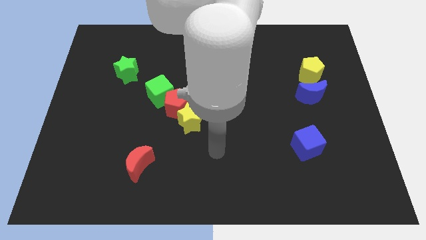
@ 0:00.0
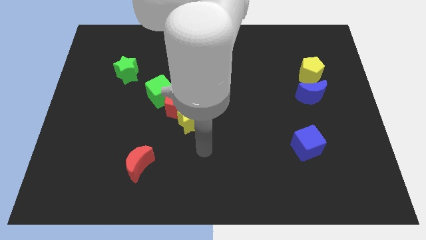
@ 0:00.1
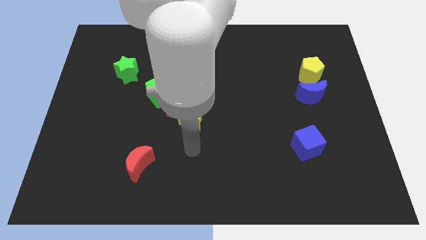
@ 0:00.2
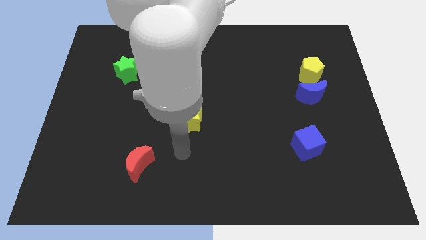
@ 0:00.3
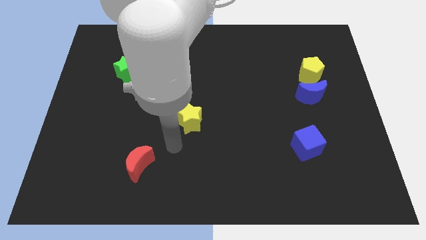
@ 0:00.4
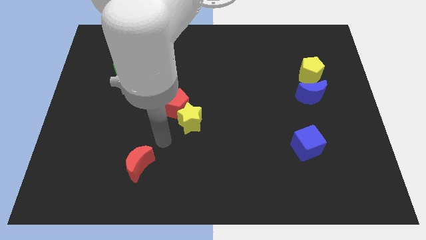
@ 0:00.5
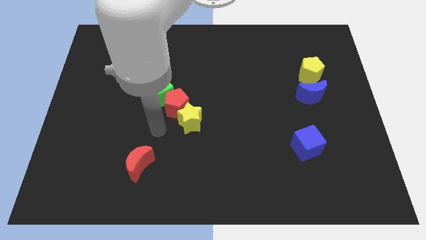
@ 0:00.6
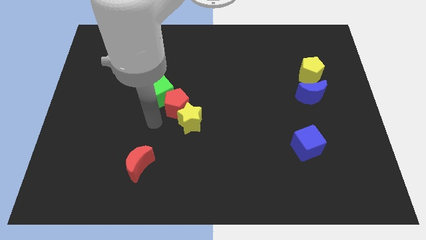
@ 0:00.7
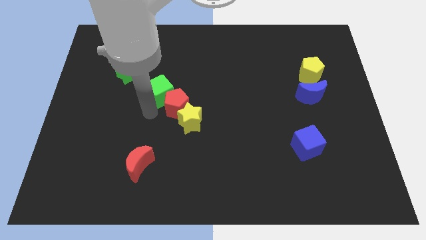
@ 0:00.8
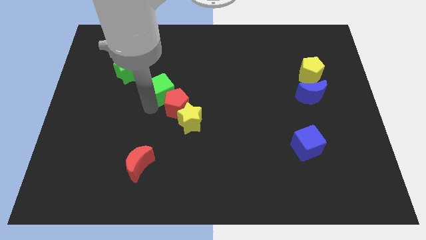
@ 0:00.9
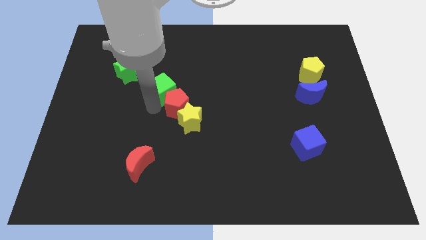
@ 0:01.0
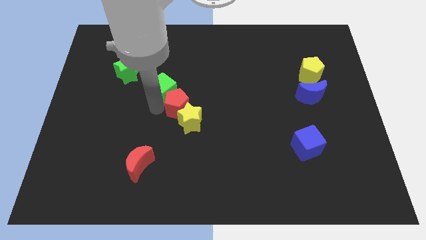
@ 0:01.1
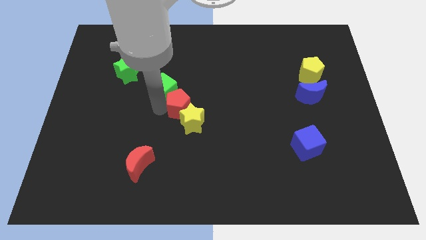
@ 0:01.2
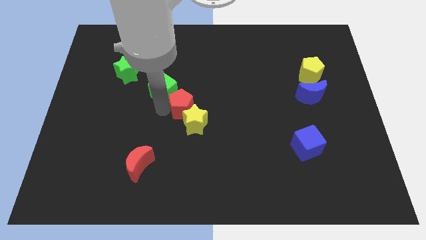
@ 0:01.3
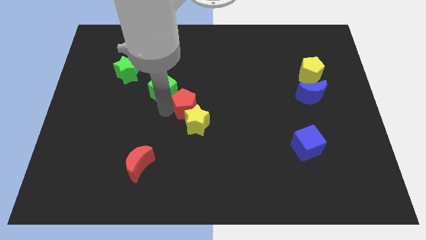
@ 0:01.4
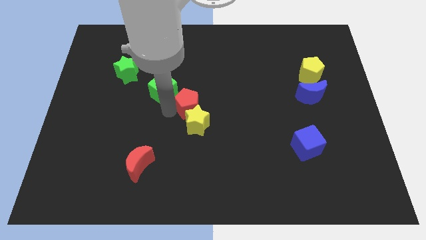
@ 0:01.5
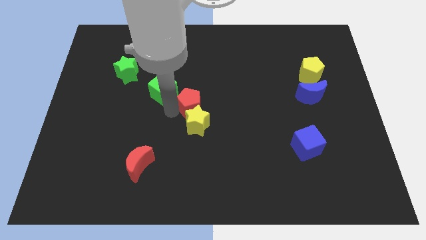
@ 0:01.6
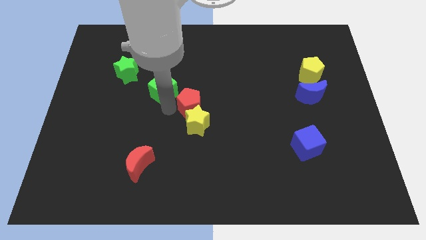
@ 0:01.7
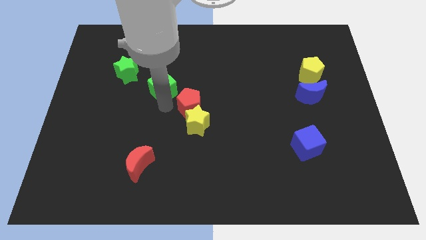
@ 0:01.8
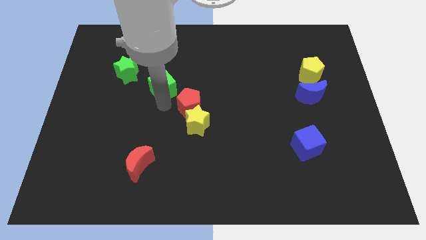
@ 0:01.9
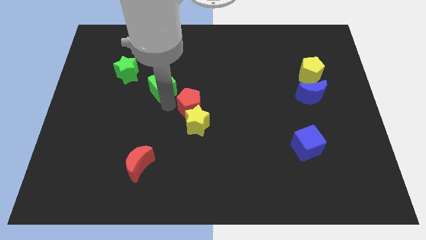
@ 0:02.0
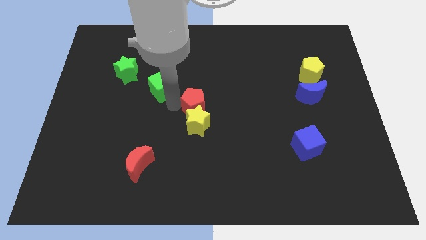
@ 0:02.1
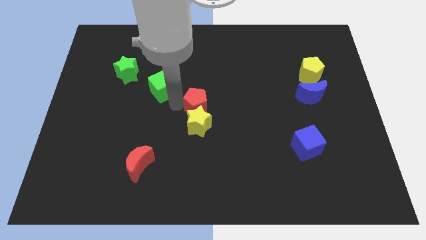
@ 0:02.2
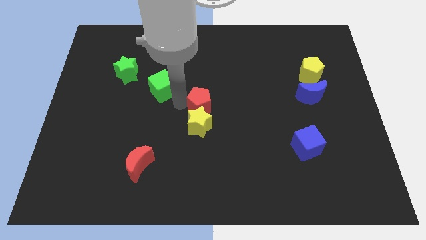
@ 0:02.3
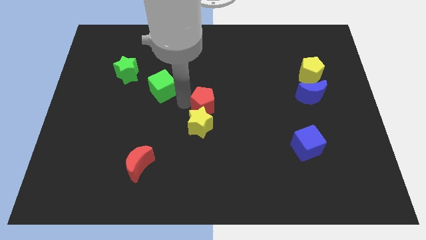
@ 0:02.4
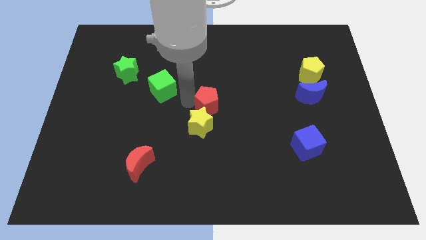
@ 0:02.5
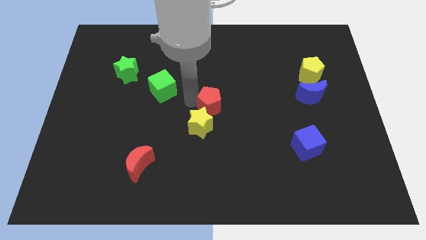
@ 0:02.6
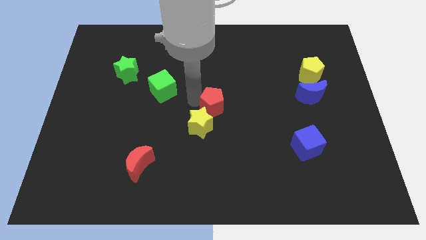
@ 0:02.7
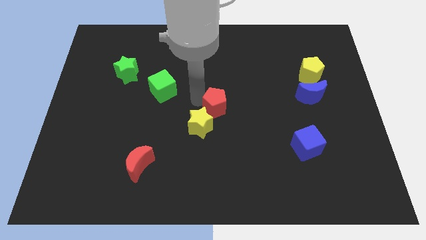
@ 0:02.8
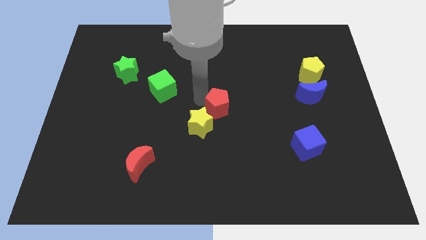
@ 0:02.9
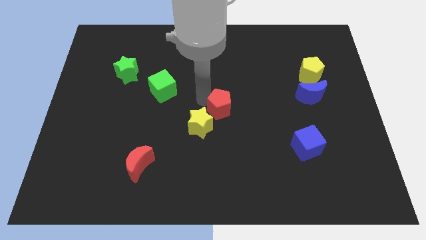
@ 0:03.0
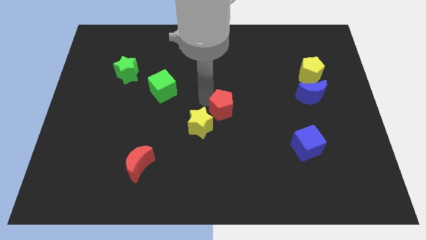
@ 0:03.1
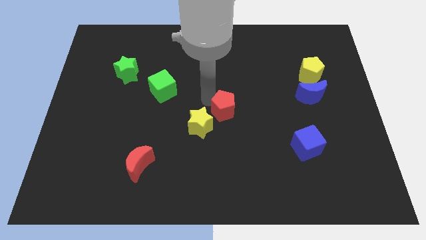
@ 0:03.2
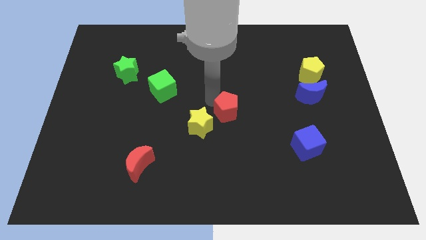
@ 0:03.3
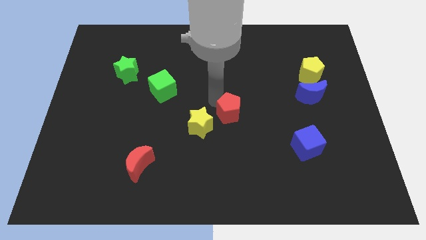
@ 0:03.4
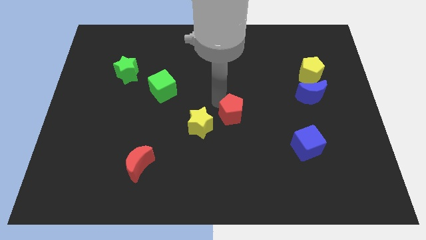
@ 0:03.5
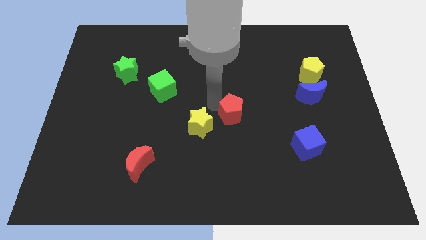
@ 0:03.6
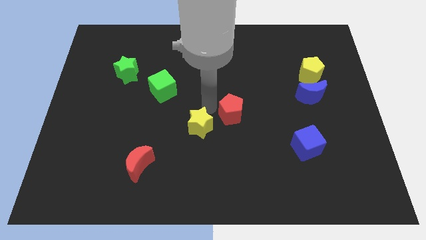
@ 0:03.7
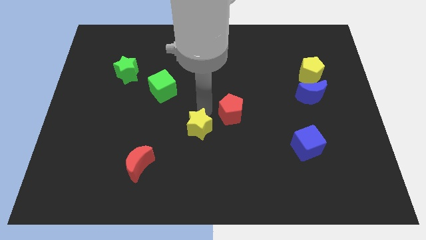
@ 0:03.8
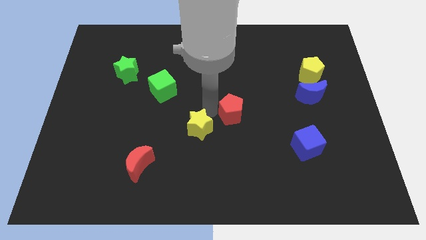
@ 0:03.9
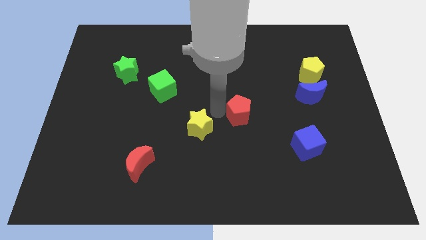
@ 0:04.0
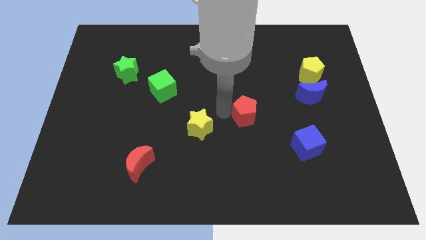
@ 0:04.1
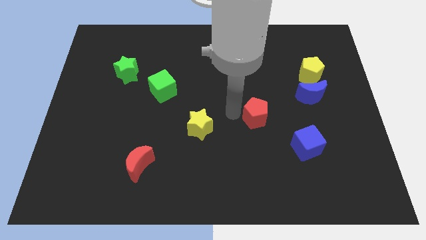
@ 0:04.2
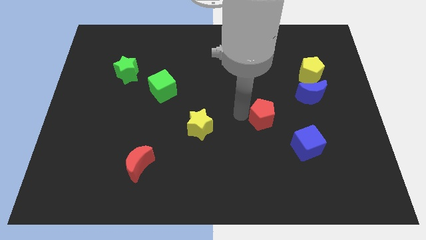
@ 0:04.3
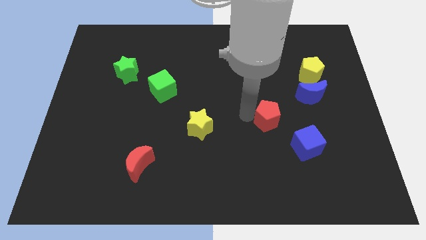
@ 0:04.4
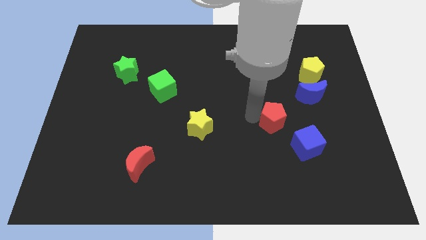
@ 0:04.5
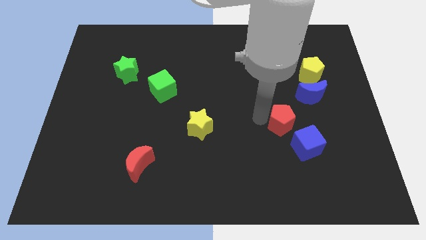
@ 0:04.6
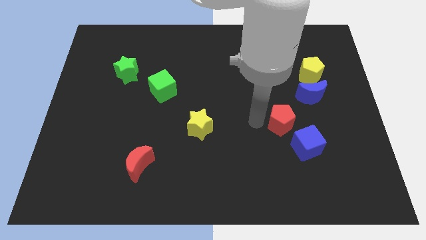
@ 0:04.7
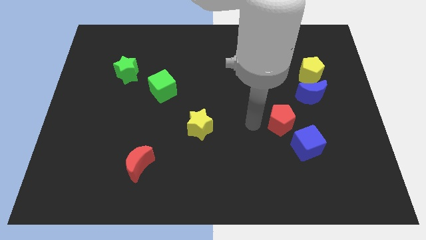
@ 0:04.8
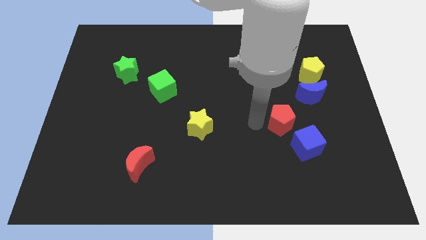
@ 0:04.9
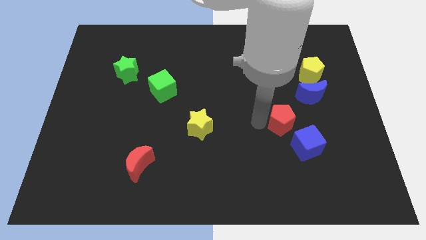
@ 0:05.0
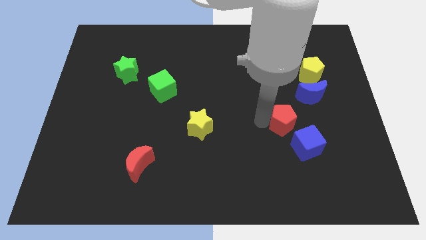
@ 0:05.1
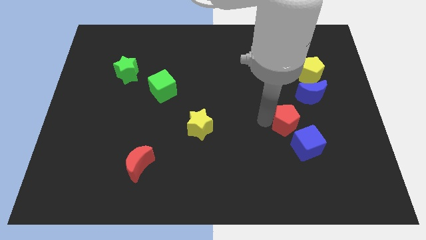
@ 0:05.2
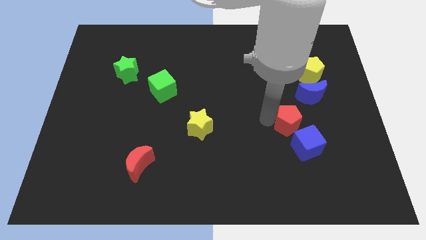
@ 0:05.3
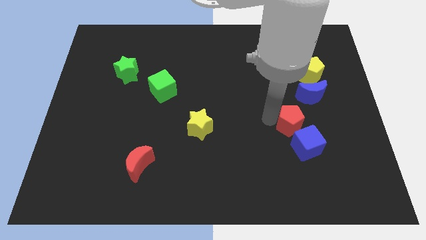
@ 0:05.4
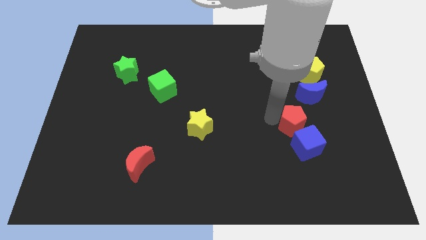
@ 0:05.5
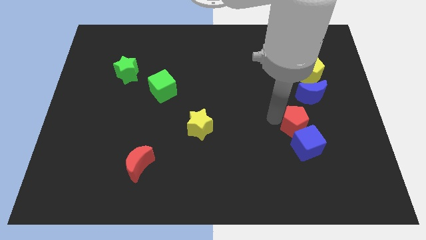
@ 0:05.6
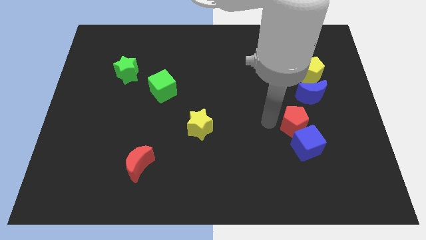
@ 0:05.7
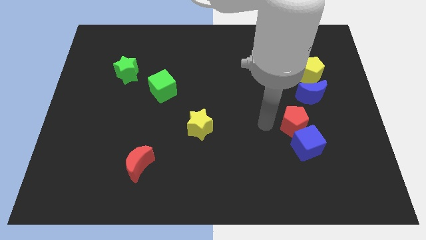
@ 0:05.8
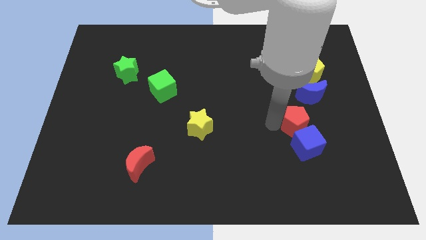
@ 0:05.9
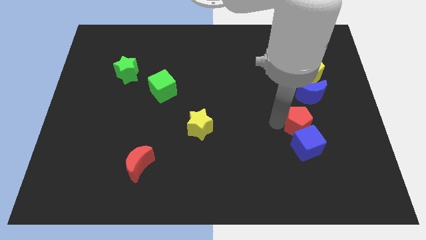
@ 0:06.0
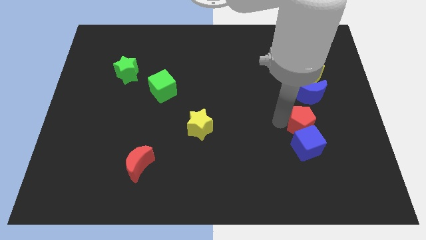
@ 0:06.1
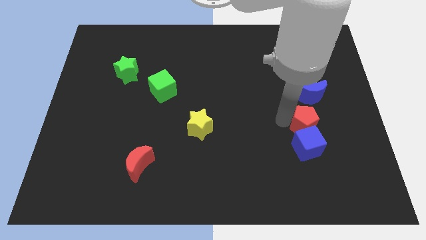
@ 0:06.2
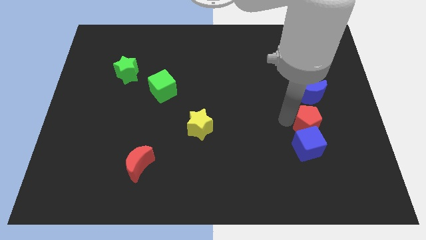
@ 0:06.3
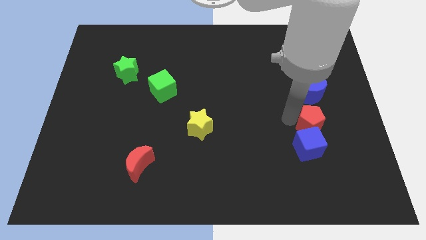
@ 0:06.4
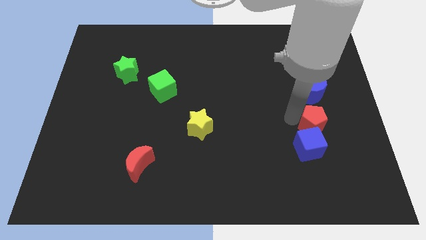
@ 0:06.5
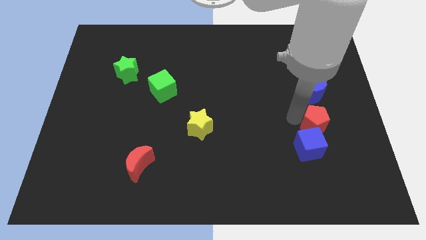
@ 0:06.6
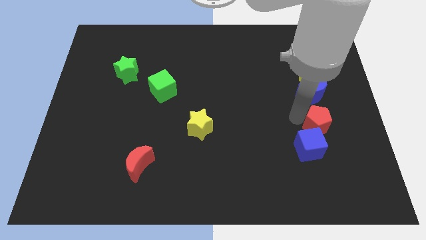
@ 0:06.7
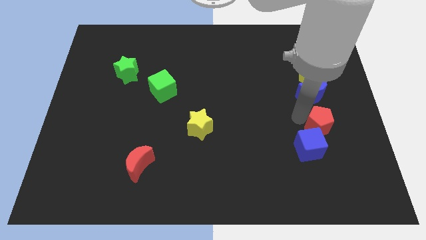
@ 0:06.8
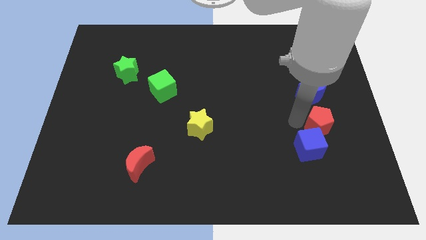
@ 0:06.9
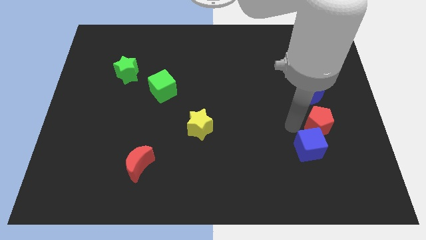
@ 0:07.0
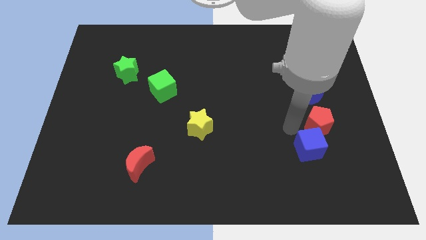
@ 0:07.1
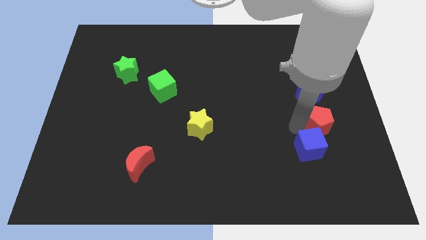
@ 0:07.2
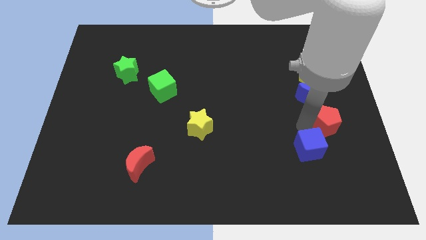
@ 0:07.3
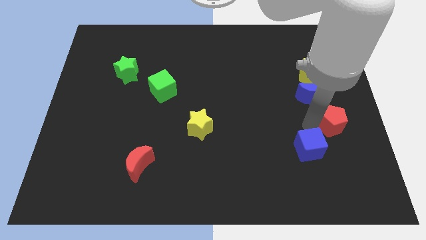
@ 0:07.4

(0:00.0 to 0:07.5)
slide the red pentagon to the center right
